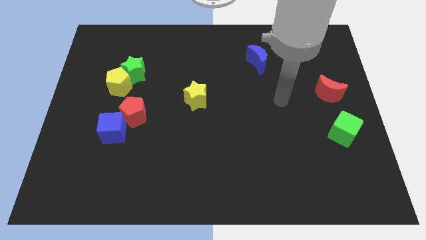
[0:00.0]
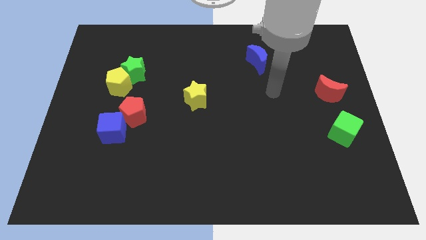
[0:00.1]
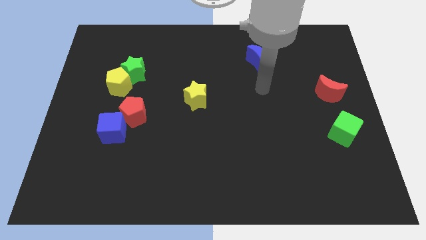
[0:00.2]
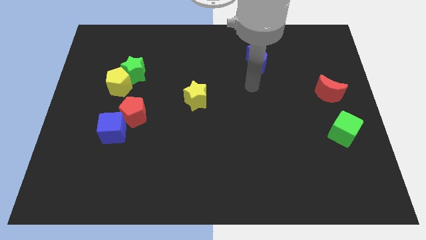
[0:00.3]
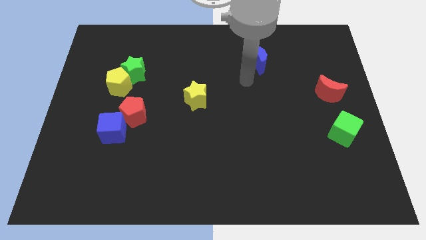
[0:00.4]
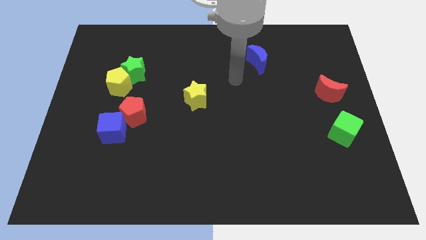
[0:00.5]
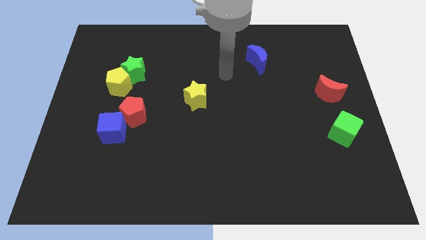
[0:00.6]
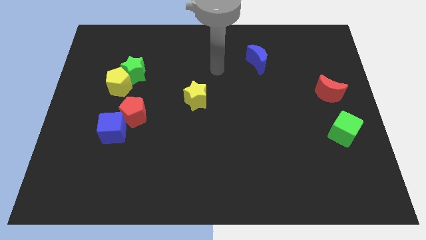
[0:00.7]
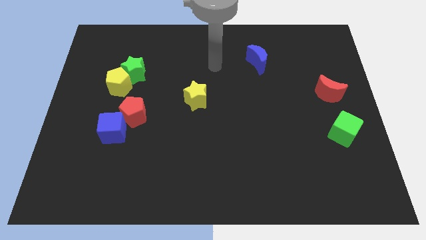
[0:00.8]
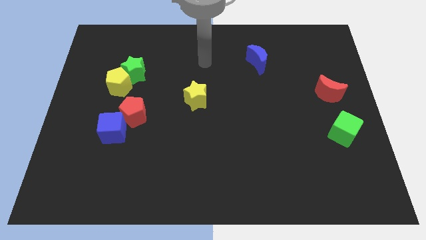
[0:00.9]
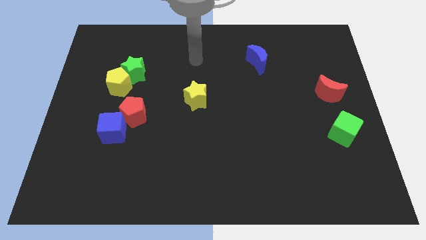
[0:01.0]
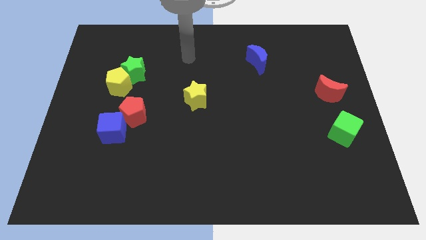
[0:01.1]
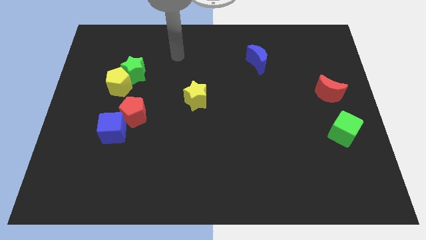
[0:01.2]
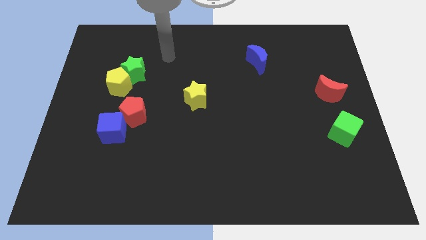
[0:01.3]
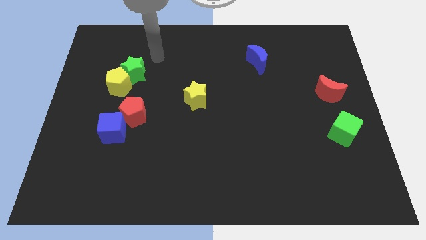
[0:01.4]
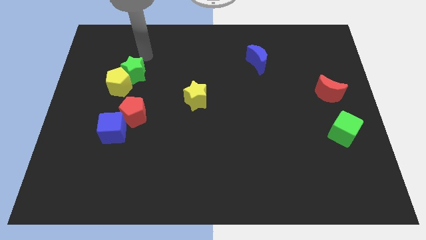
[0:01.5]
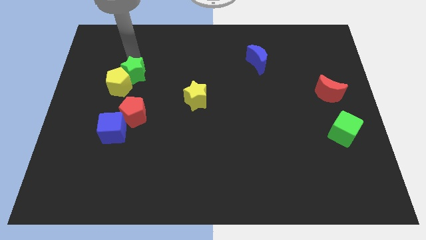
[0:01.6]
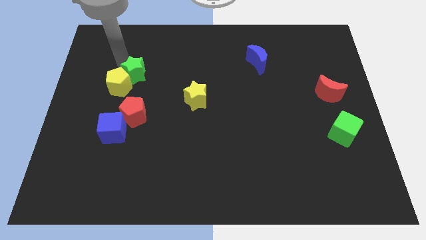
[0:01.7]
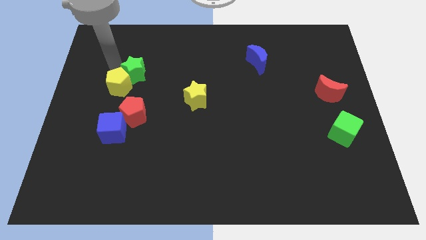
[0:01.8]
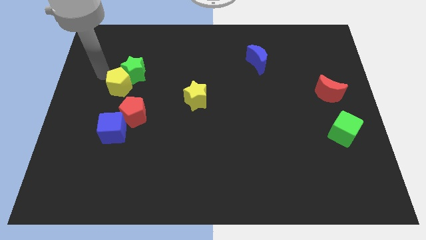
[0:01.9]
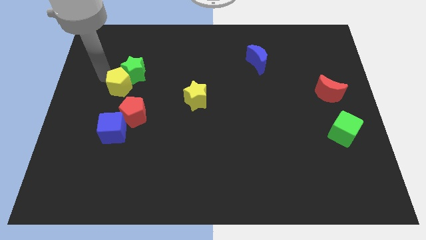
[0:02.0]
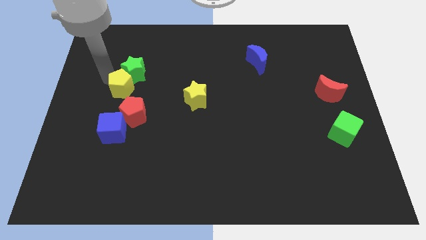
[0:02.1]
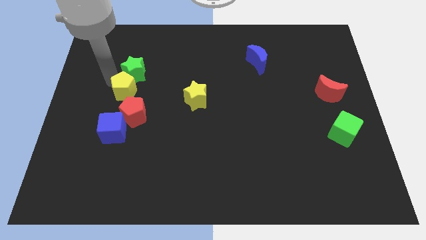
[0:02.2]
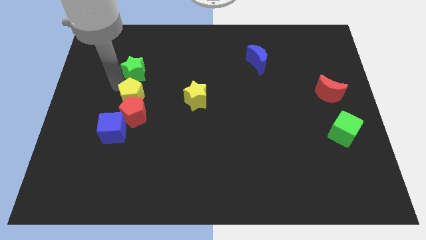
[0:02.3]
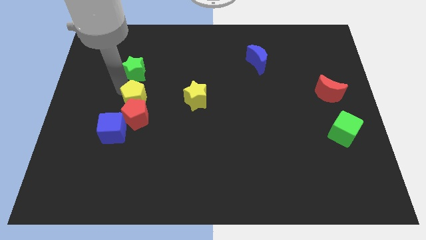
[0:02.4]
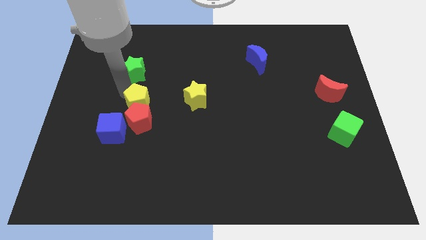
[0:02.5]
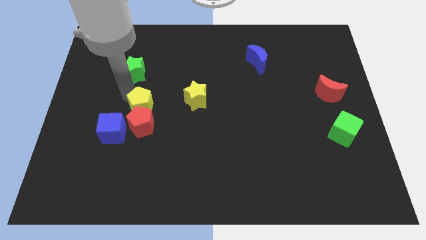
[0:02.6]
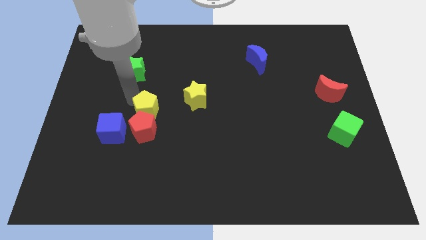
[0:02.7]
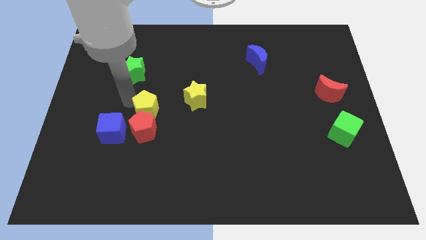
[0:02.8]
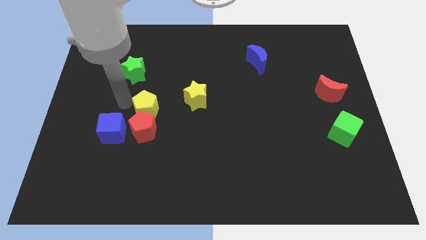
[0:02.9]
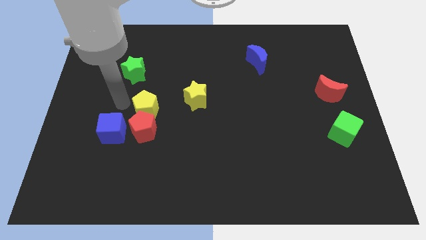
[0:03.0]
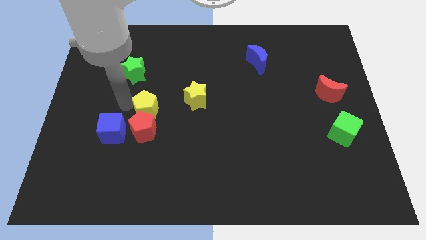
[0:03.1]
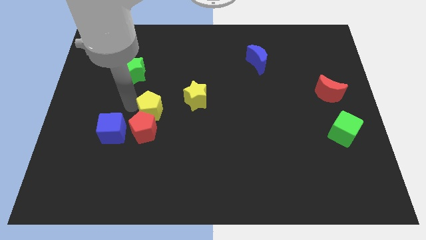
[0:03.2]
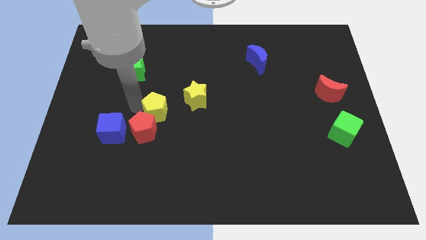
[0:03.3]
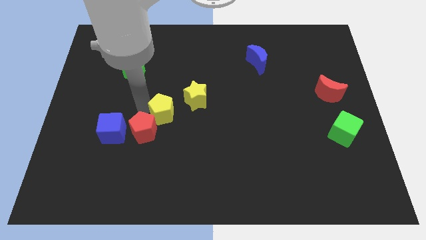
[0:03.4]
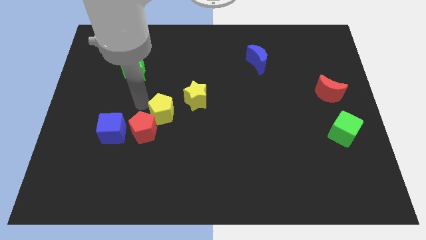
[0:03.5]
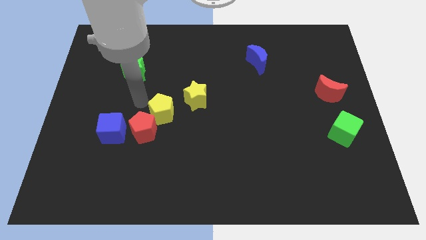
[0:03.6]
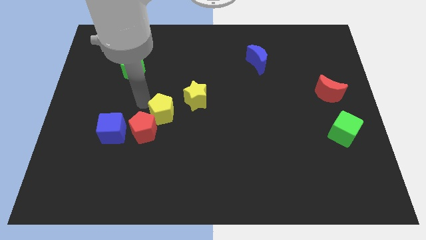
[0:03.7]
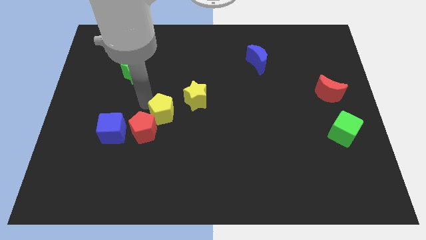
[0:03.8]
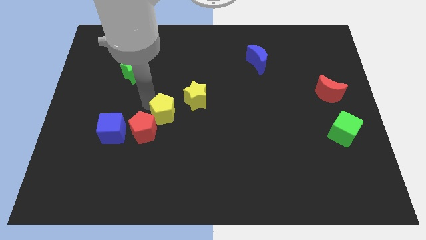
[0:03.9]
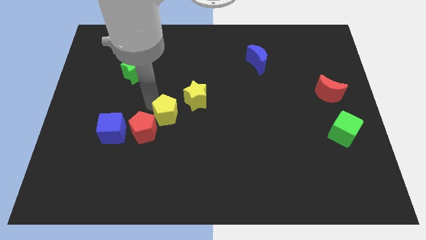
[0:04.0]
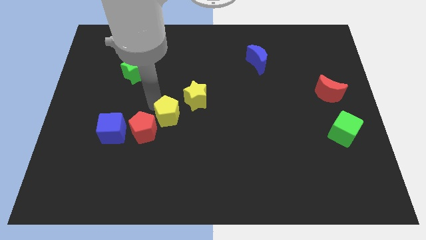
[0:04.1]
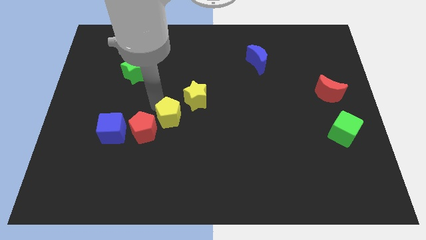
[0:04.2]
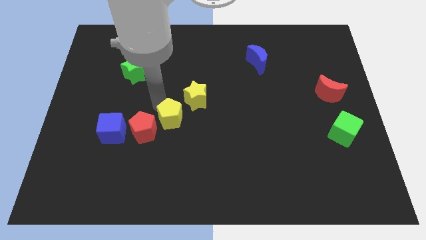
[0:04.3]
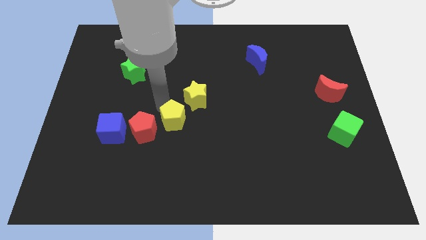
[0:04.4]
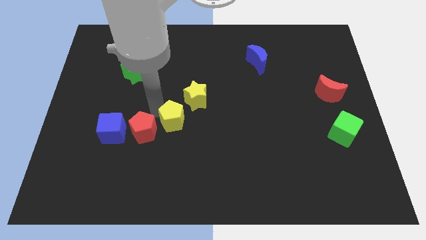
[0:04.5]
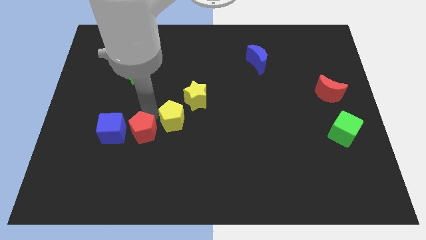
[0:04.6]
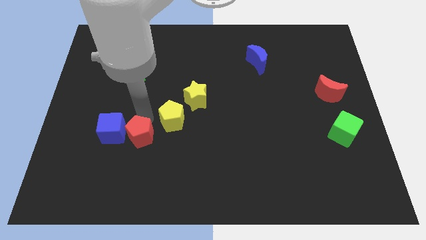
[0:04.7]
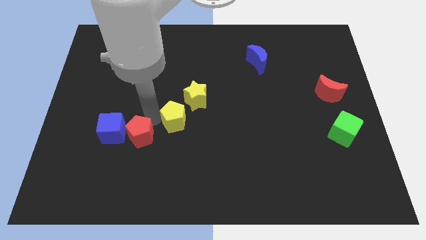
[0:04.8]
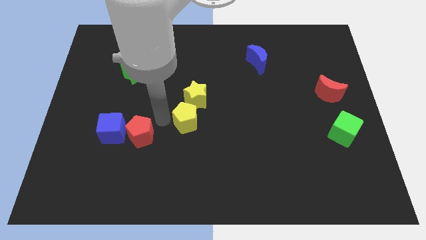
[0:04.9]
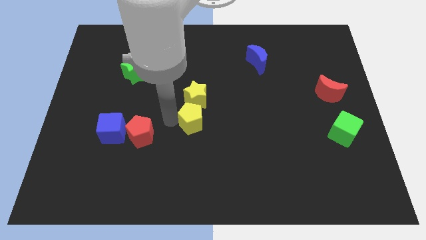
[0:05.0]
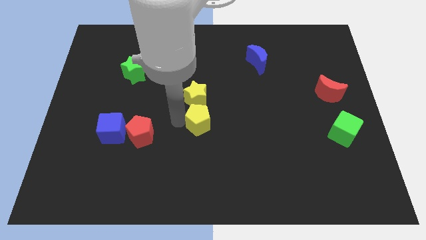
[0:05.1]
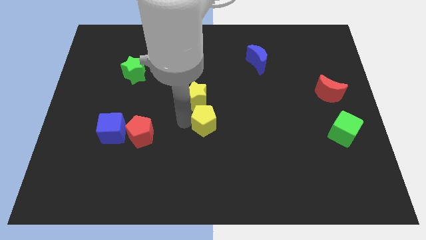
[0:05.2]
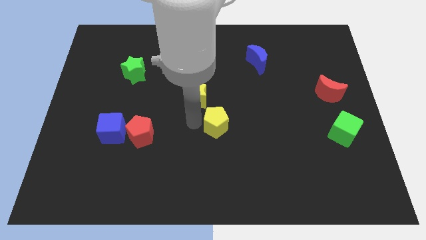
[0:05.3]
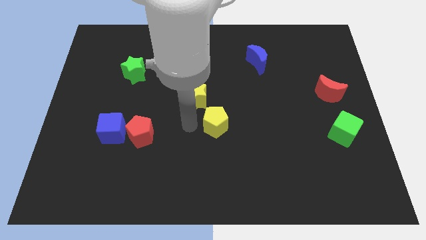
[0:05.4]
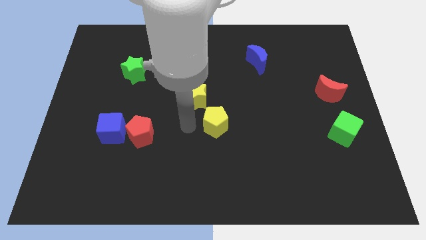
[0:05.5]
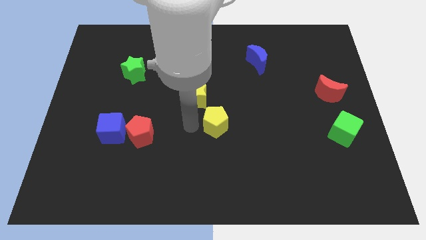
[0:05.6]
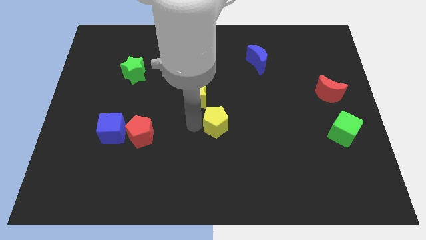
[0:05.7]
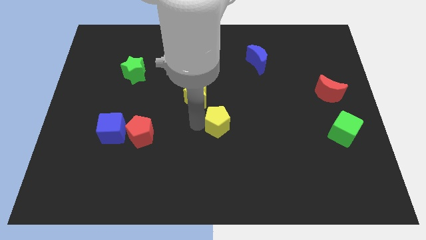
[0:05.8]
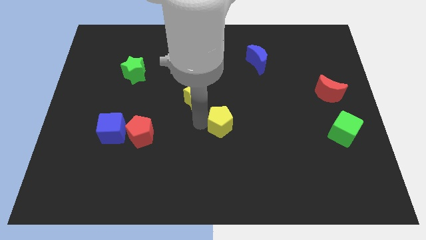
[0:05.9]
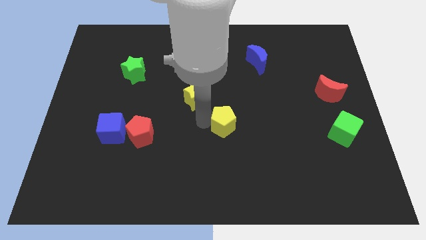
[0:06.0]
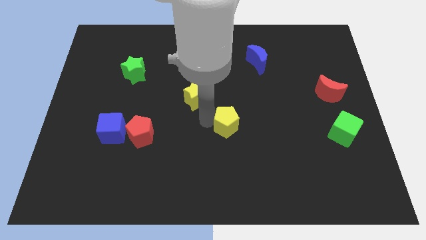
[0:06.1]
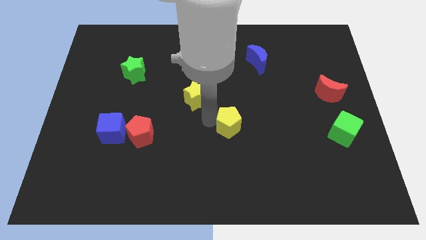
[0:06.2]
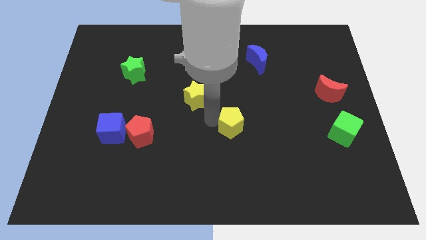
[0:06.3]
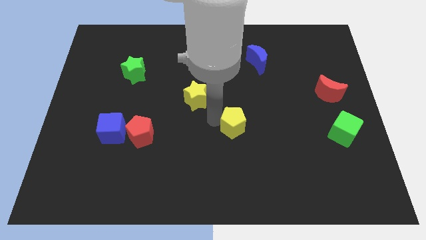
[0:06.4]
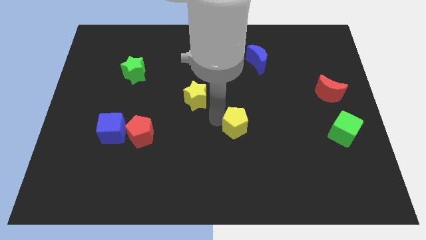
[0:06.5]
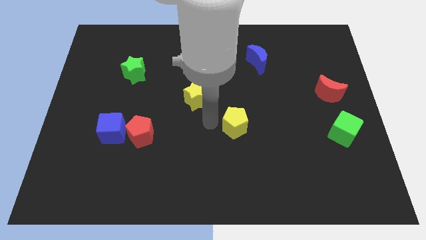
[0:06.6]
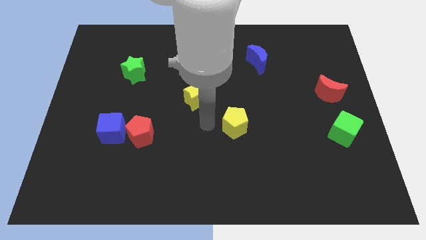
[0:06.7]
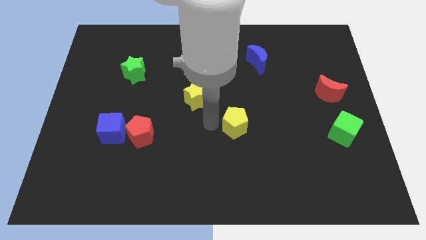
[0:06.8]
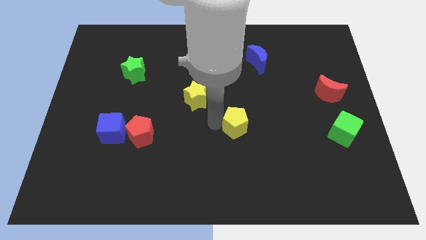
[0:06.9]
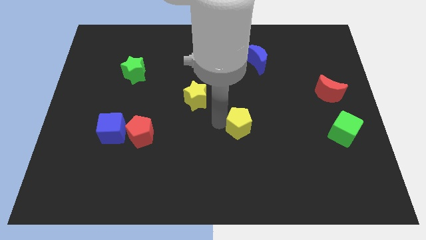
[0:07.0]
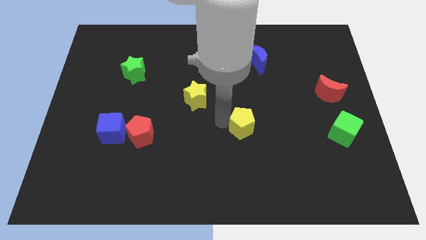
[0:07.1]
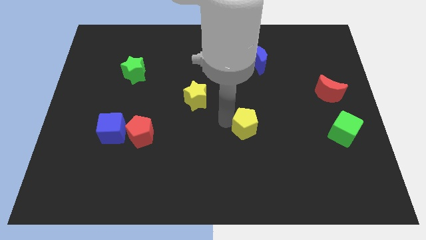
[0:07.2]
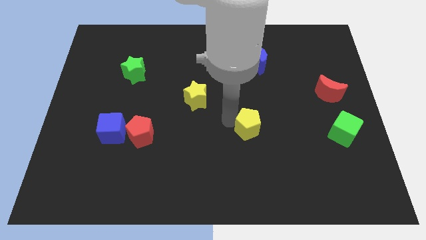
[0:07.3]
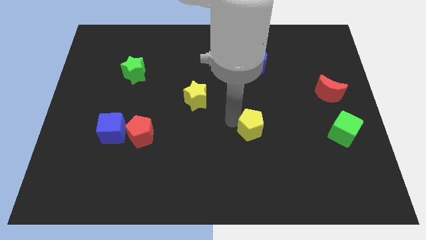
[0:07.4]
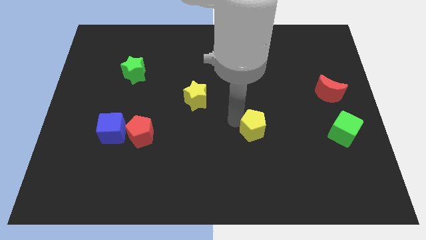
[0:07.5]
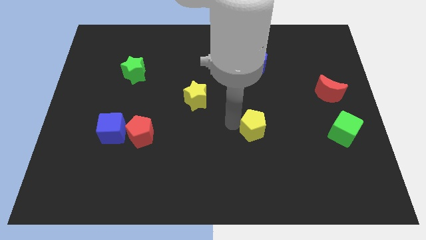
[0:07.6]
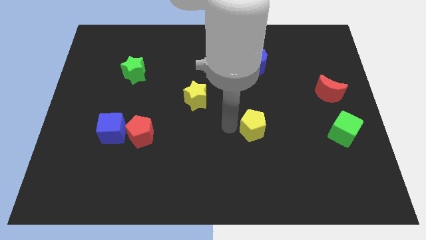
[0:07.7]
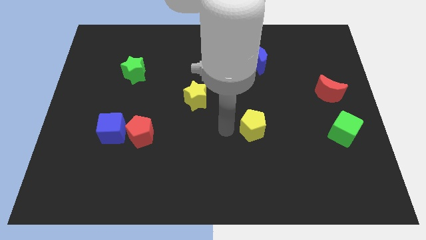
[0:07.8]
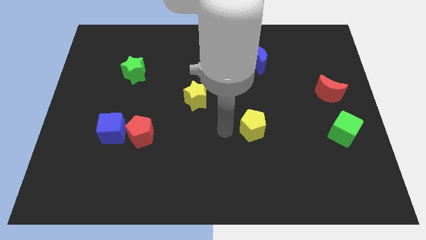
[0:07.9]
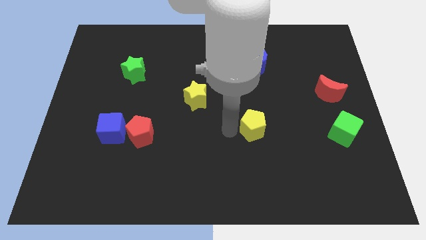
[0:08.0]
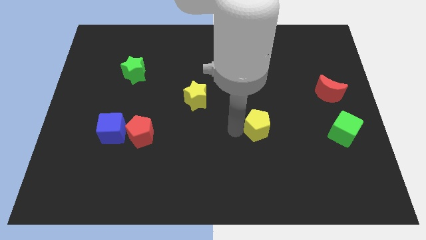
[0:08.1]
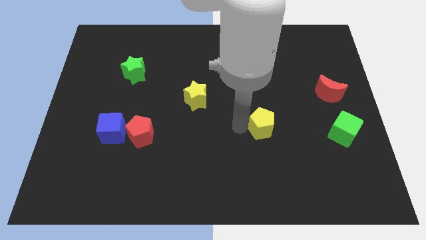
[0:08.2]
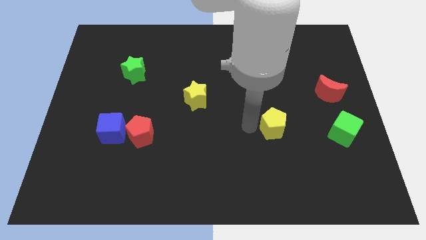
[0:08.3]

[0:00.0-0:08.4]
move the yellow pentagon to the left of the green cube
